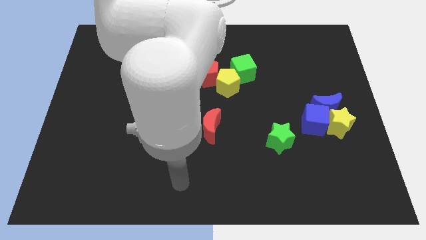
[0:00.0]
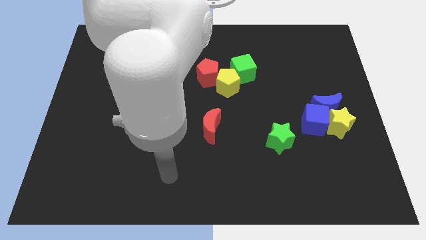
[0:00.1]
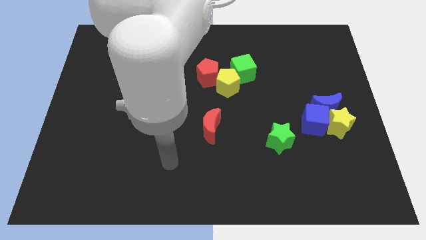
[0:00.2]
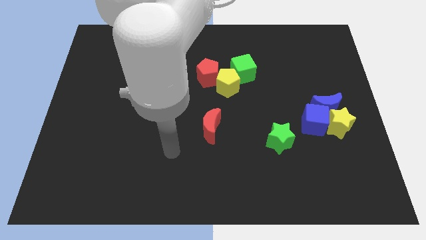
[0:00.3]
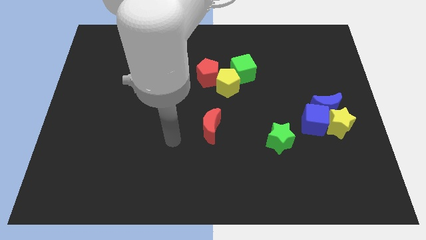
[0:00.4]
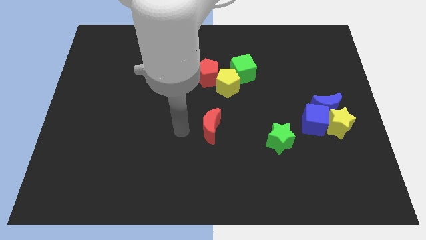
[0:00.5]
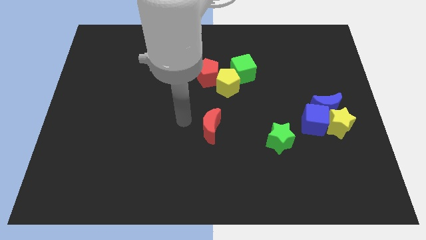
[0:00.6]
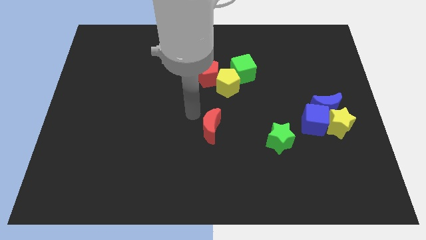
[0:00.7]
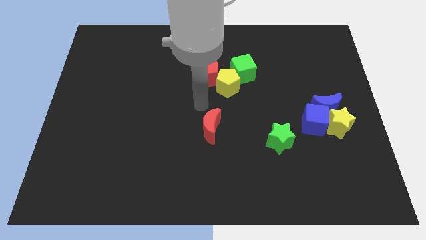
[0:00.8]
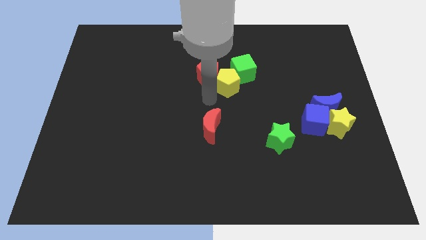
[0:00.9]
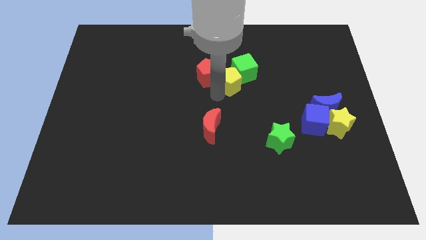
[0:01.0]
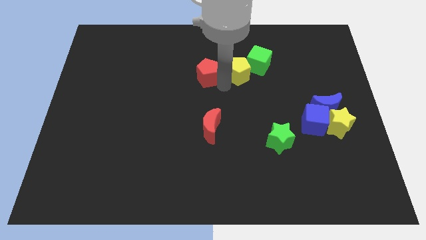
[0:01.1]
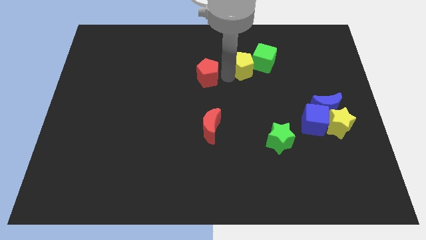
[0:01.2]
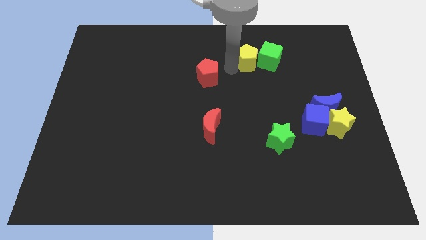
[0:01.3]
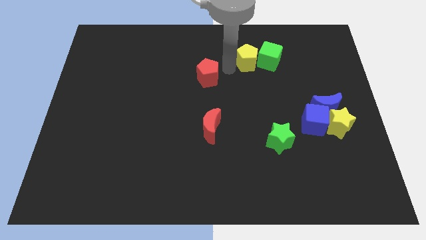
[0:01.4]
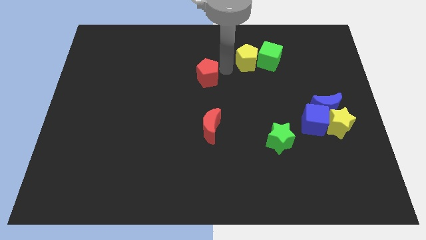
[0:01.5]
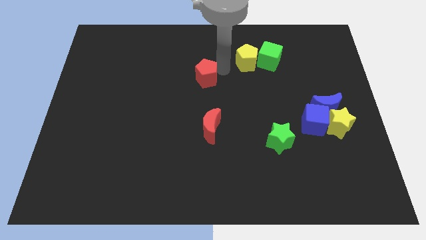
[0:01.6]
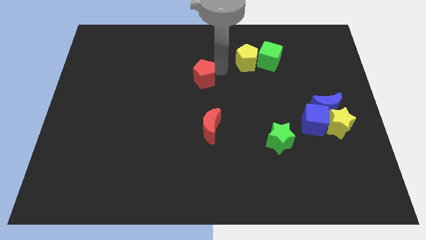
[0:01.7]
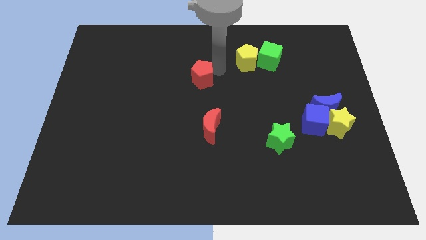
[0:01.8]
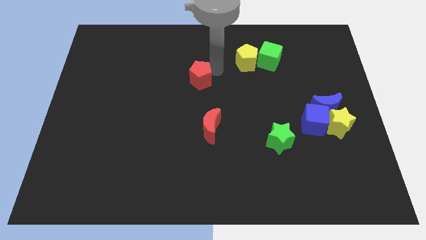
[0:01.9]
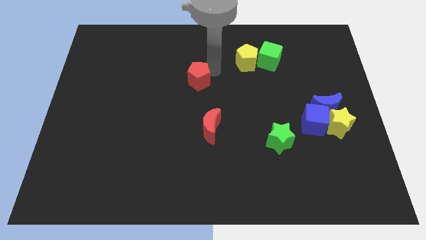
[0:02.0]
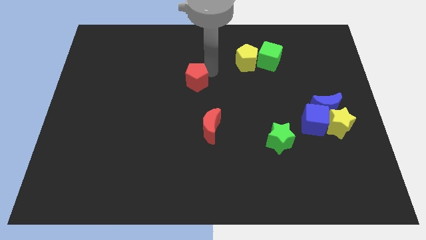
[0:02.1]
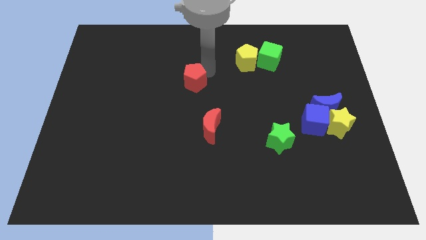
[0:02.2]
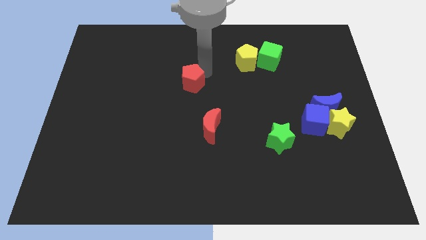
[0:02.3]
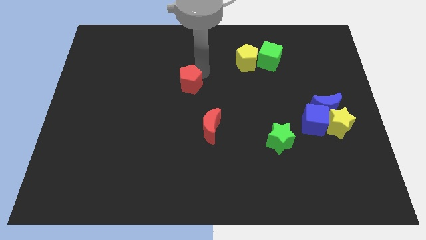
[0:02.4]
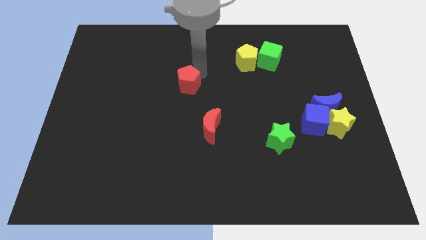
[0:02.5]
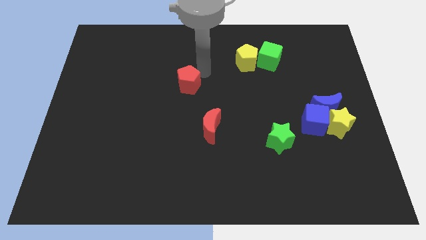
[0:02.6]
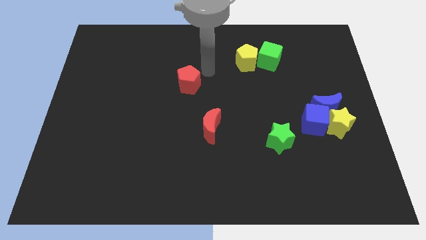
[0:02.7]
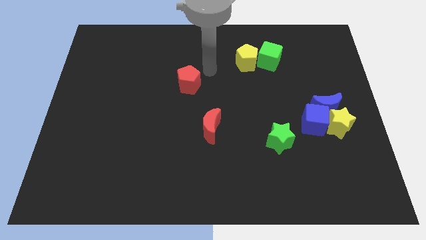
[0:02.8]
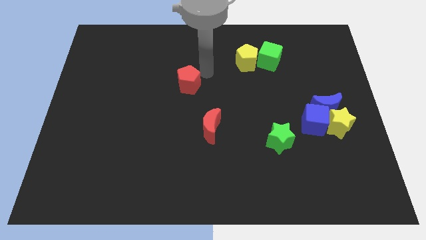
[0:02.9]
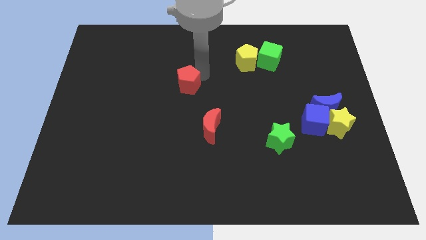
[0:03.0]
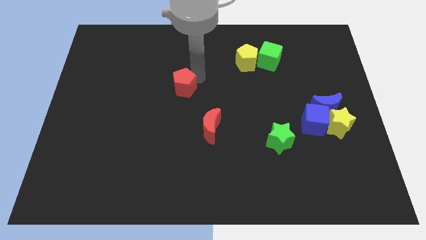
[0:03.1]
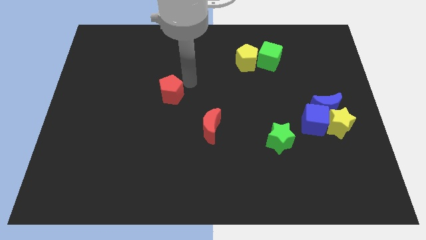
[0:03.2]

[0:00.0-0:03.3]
push the red pentagon a little bit diagonally downwards and left

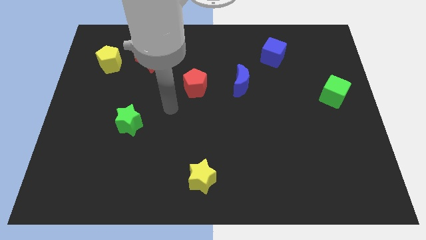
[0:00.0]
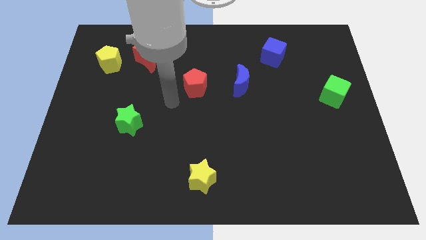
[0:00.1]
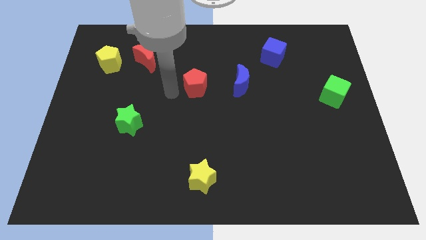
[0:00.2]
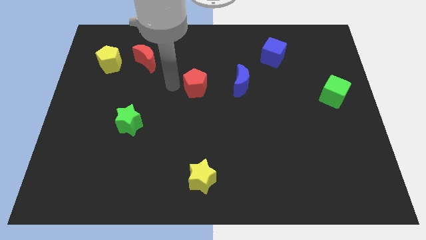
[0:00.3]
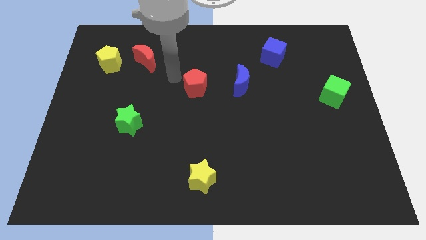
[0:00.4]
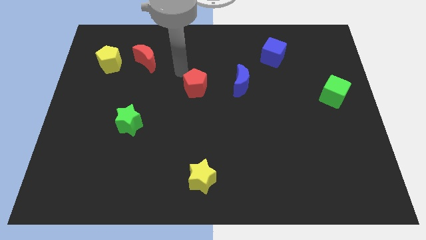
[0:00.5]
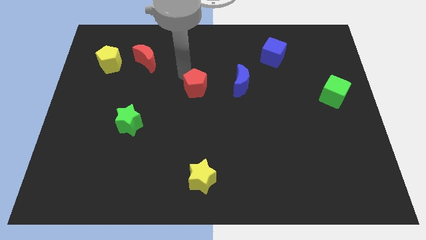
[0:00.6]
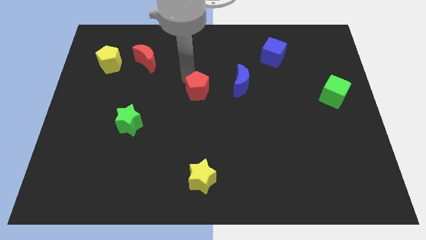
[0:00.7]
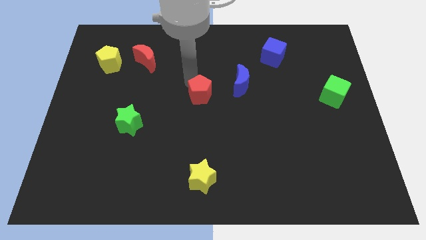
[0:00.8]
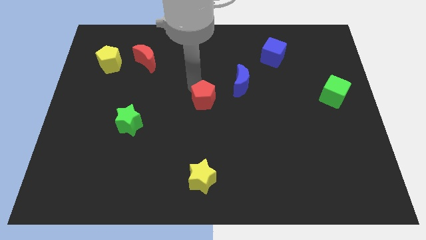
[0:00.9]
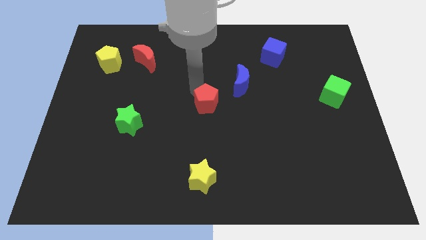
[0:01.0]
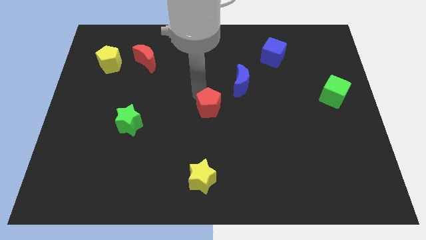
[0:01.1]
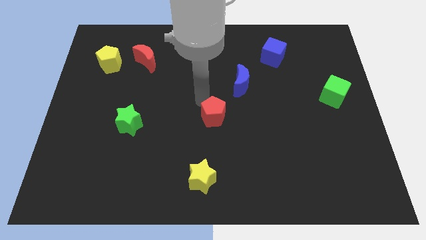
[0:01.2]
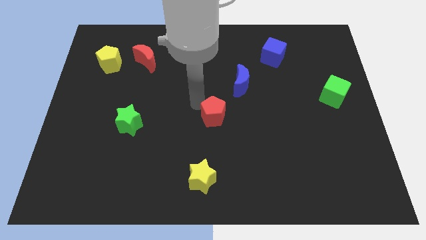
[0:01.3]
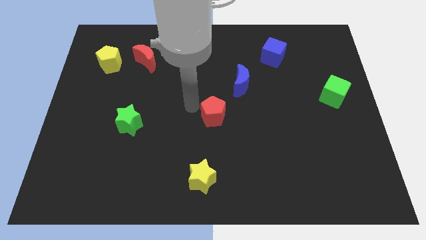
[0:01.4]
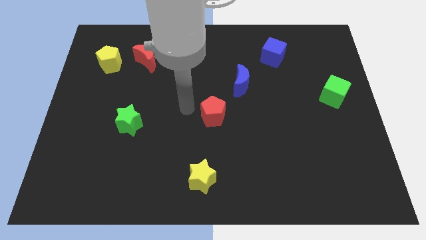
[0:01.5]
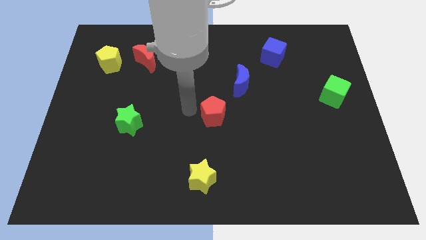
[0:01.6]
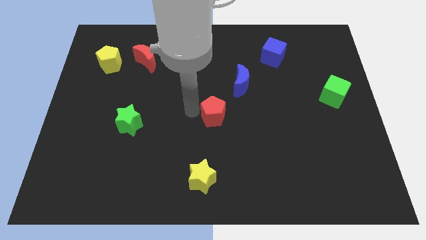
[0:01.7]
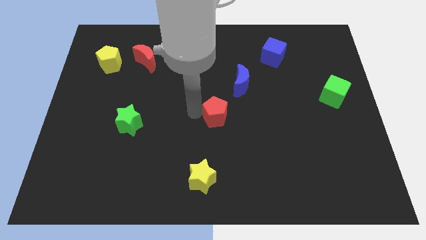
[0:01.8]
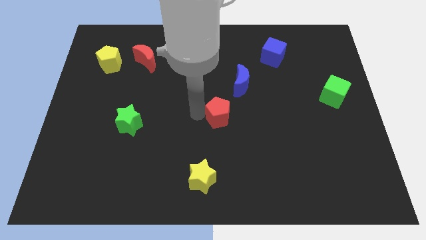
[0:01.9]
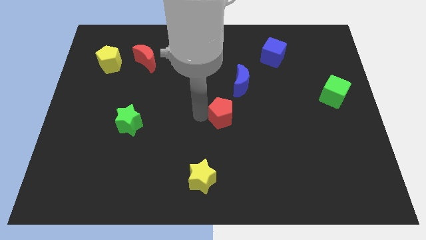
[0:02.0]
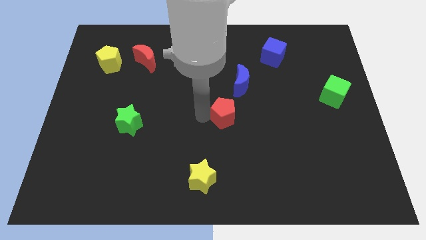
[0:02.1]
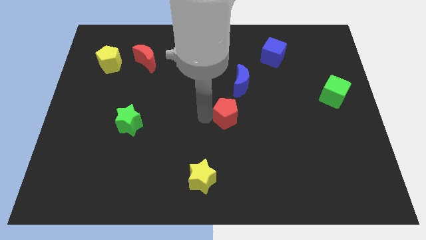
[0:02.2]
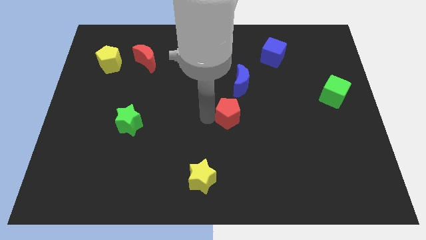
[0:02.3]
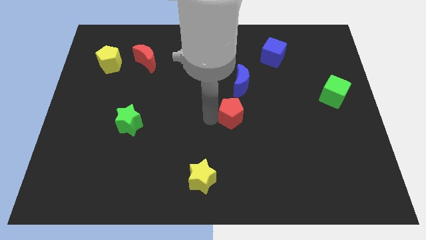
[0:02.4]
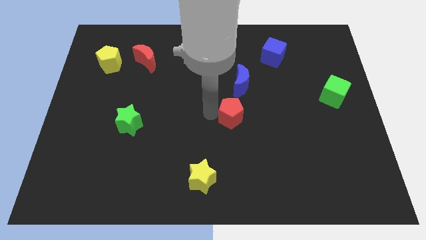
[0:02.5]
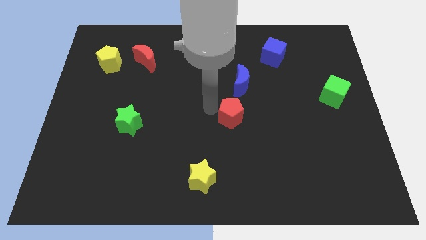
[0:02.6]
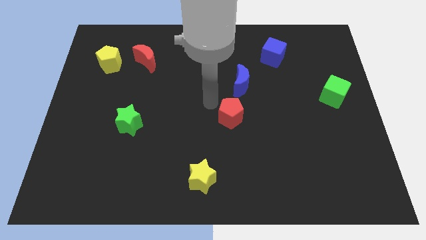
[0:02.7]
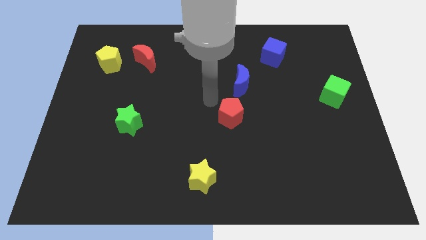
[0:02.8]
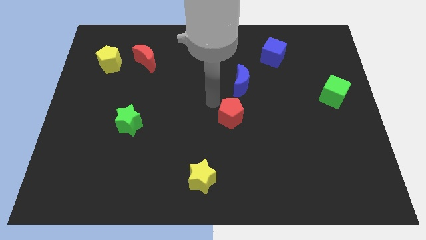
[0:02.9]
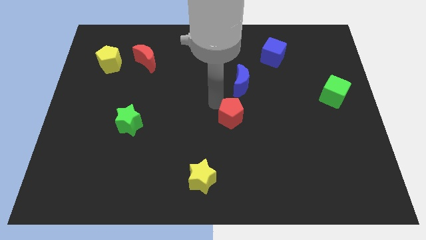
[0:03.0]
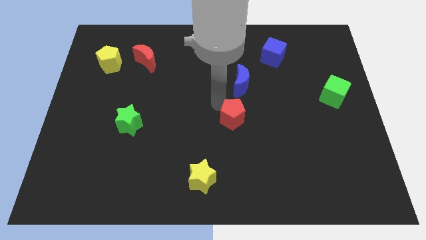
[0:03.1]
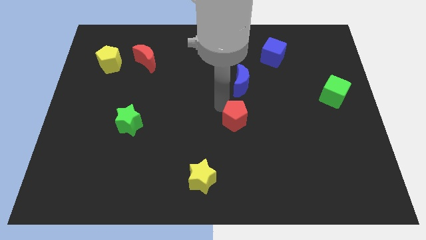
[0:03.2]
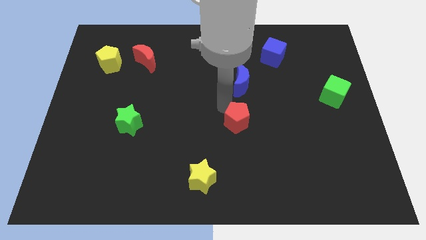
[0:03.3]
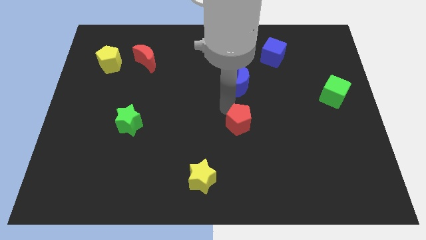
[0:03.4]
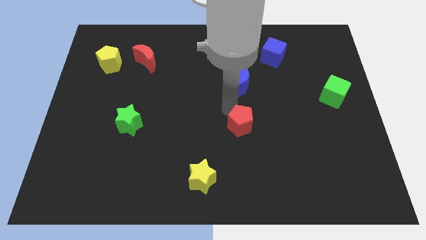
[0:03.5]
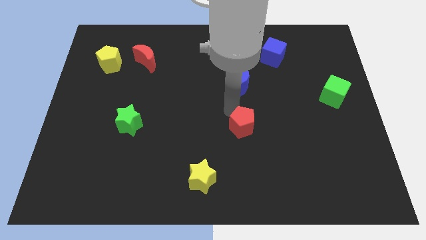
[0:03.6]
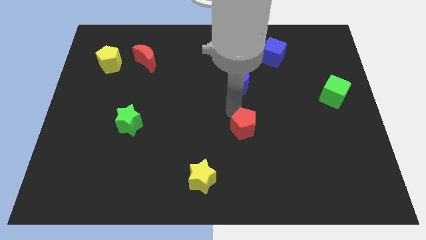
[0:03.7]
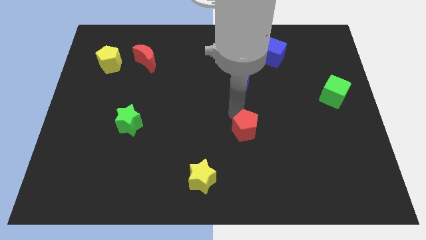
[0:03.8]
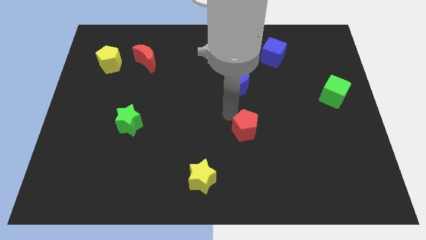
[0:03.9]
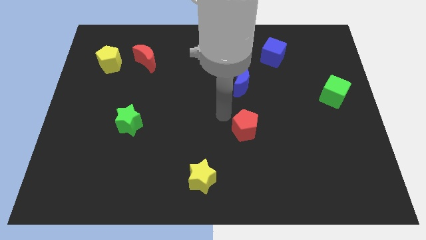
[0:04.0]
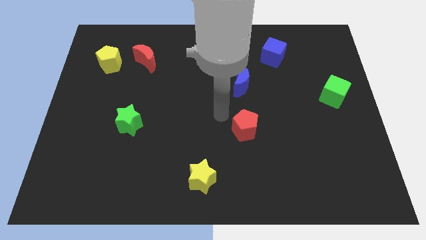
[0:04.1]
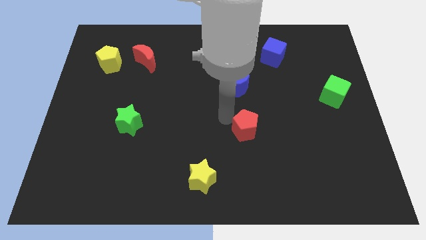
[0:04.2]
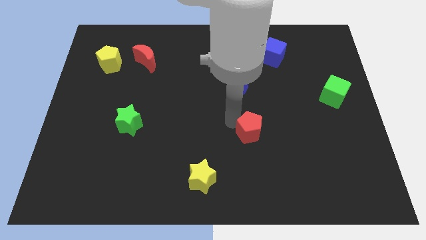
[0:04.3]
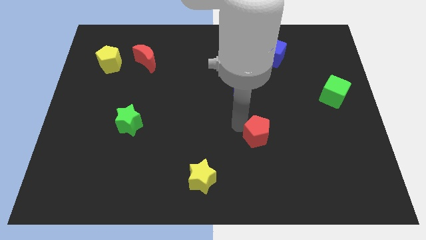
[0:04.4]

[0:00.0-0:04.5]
move the red pentagon downwards and then right

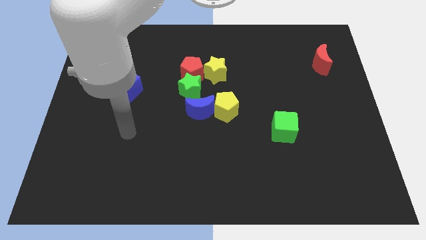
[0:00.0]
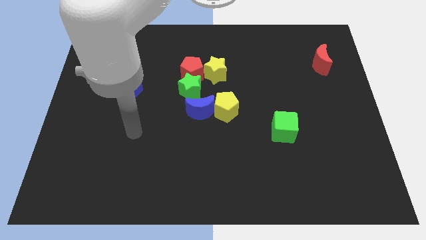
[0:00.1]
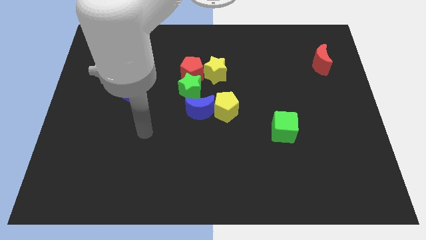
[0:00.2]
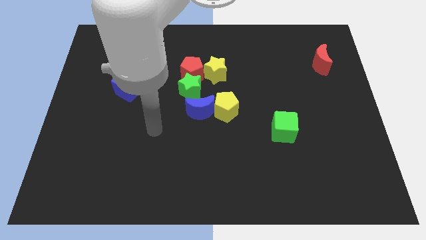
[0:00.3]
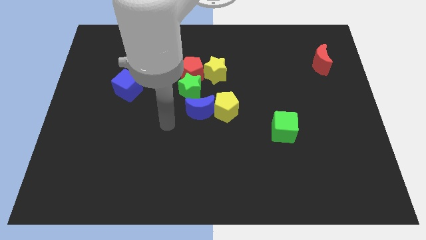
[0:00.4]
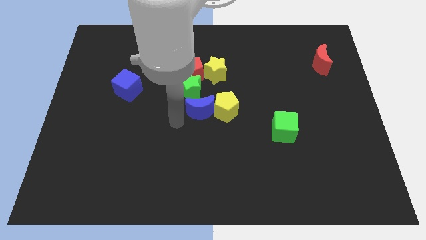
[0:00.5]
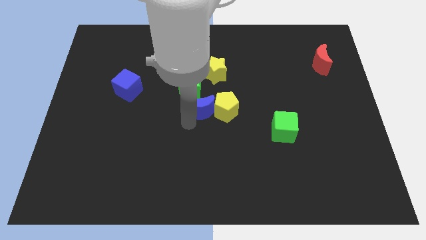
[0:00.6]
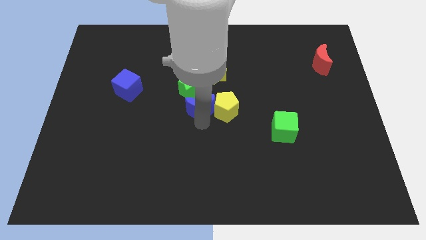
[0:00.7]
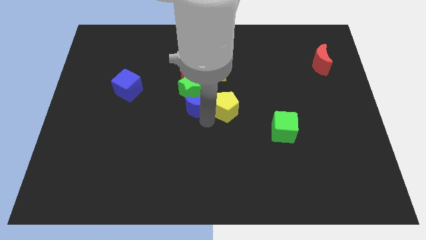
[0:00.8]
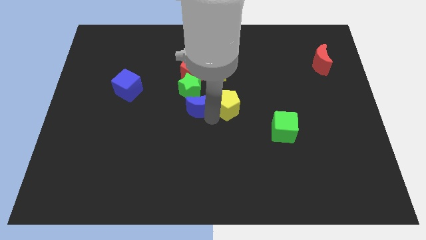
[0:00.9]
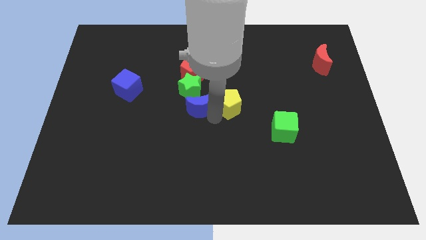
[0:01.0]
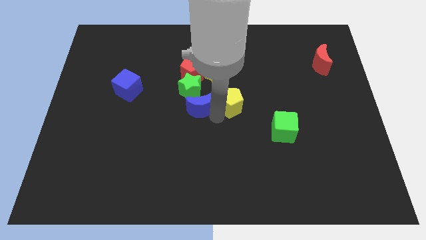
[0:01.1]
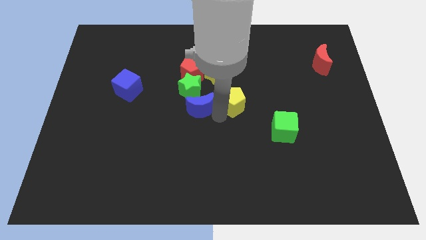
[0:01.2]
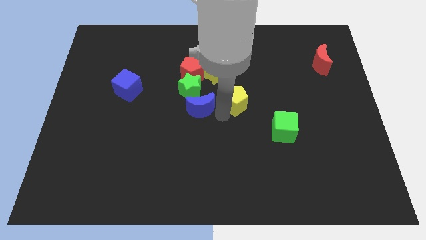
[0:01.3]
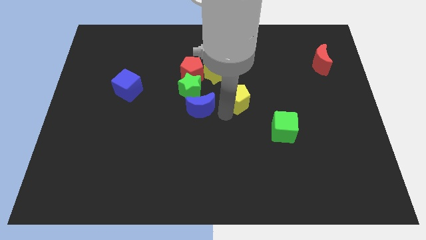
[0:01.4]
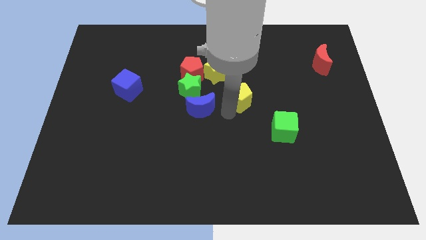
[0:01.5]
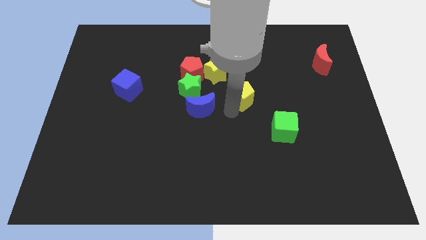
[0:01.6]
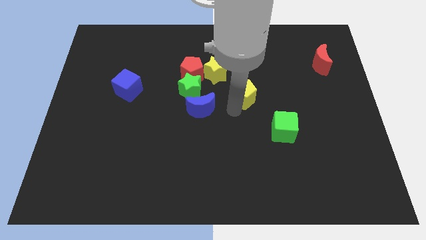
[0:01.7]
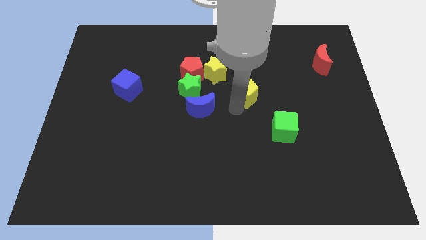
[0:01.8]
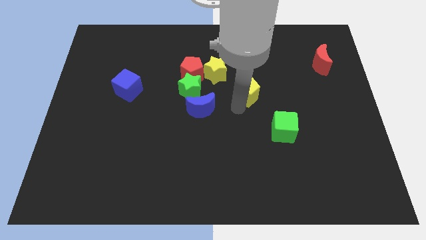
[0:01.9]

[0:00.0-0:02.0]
slightly move the yellow pentagon diagonally up and to the right
